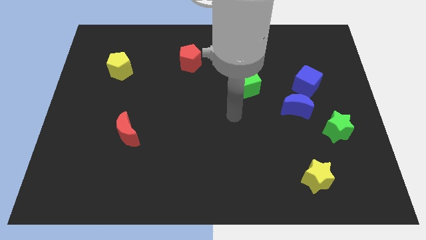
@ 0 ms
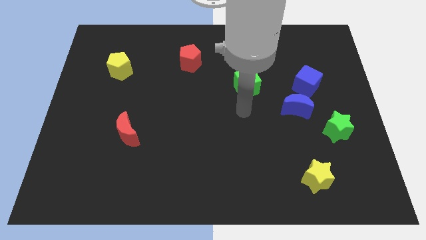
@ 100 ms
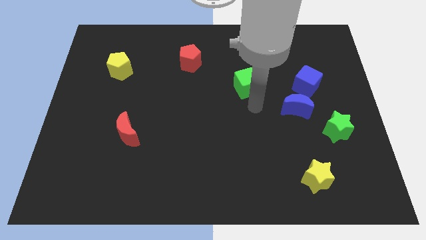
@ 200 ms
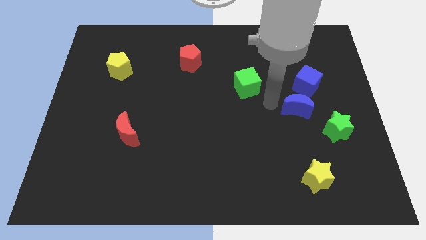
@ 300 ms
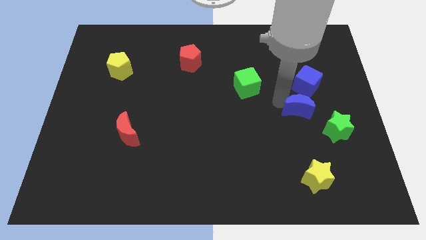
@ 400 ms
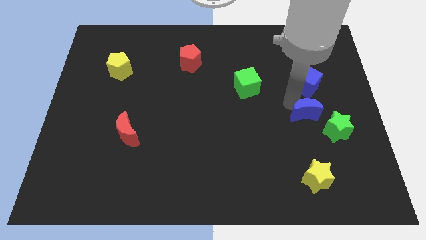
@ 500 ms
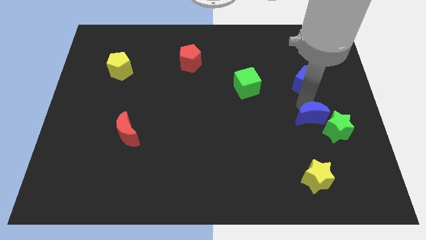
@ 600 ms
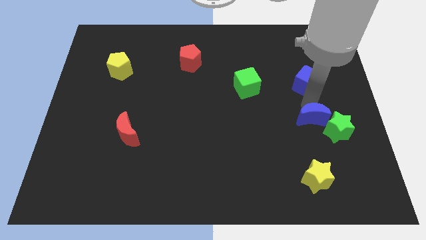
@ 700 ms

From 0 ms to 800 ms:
separate the blue cube from the blue moon

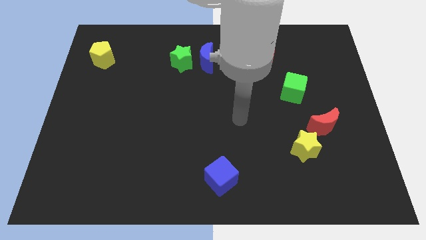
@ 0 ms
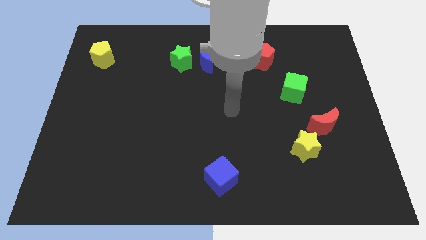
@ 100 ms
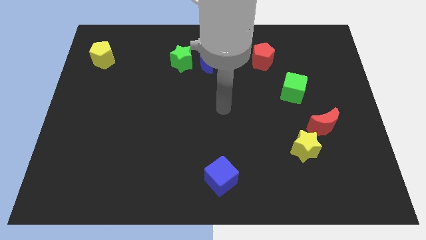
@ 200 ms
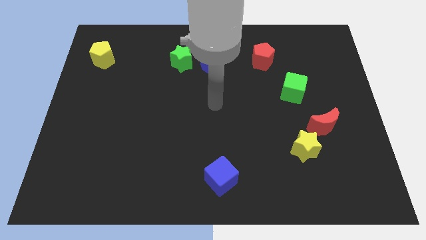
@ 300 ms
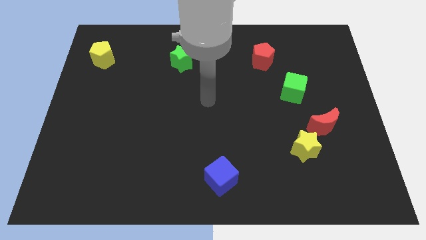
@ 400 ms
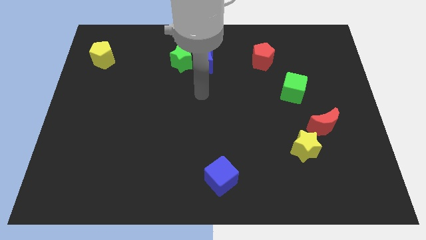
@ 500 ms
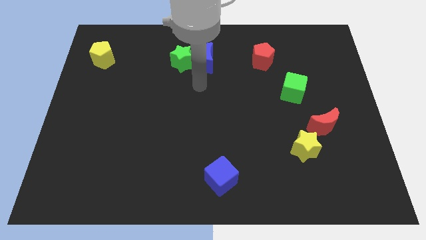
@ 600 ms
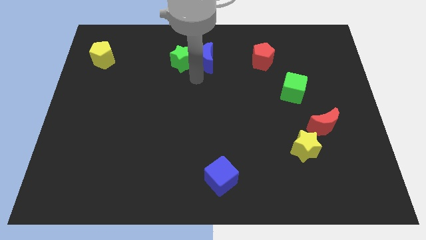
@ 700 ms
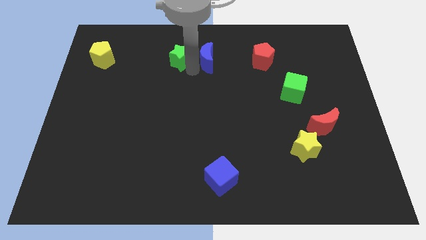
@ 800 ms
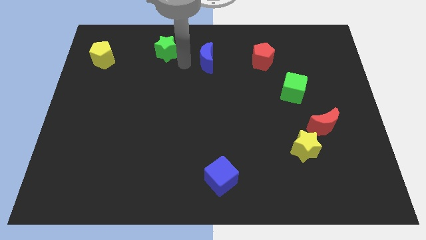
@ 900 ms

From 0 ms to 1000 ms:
move the blue moon away from the green star

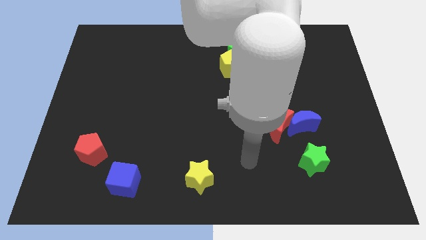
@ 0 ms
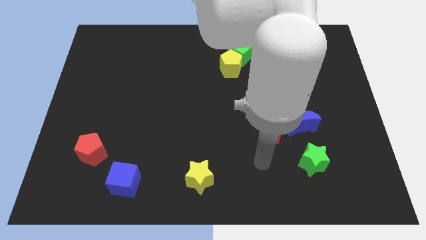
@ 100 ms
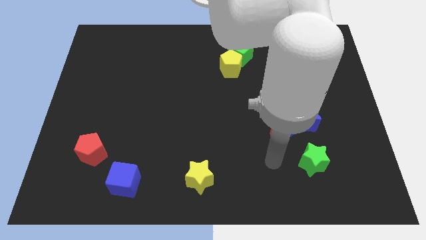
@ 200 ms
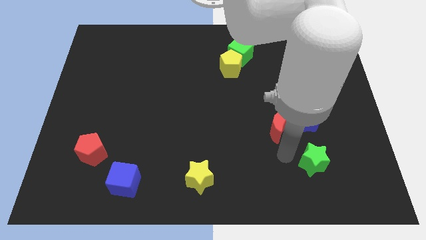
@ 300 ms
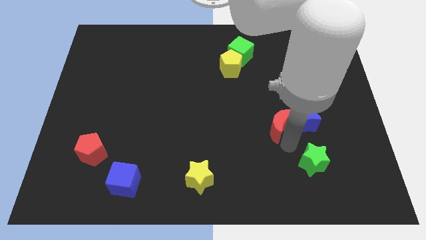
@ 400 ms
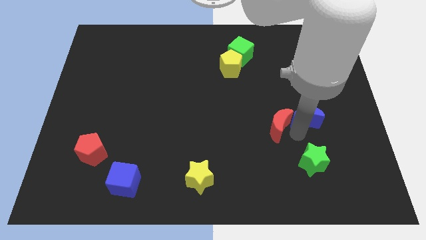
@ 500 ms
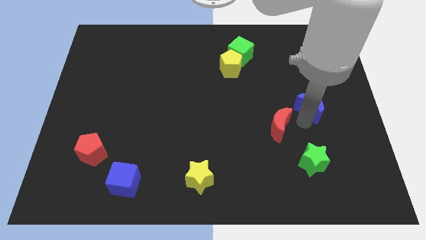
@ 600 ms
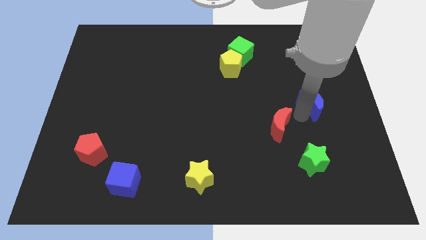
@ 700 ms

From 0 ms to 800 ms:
move the red moon away from the blue moon

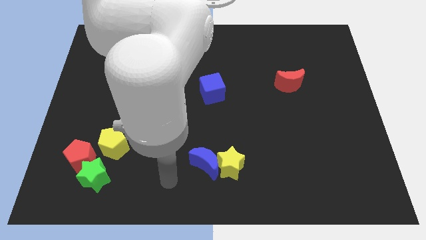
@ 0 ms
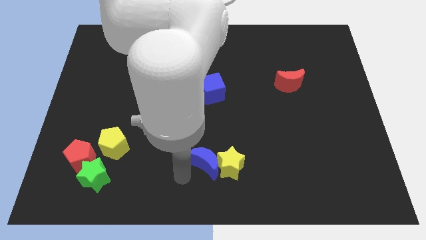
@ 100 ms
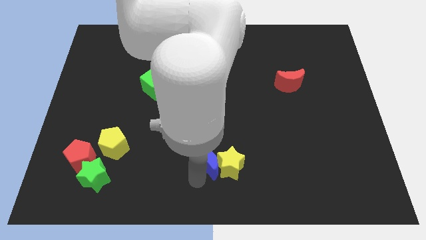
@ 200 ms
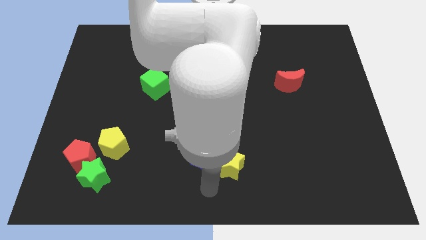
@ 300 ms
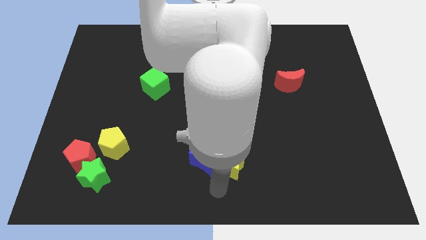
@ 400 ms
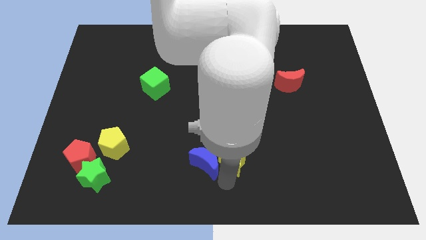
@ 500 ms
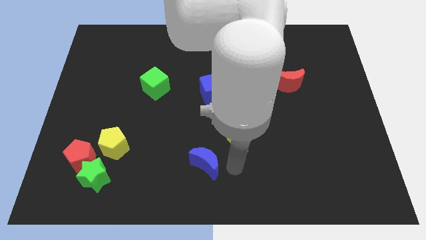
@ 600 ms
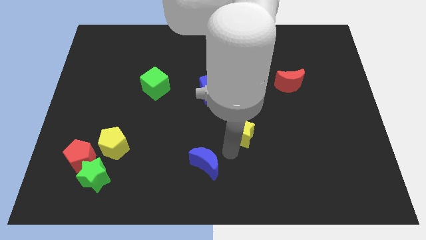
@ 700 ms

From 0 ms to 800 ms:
move the blue moon away from the yellow star

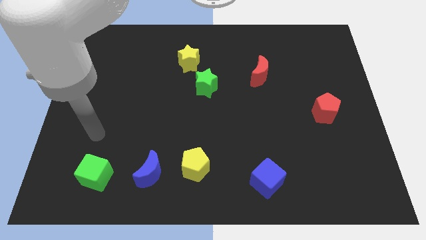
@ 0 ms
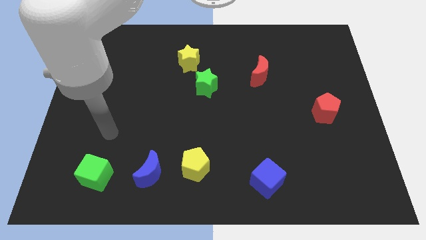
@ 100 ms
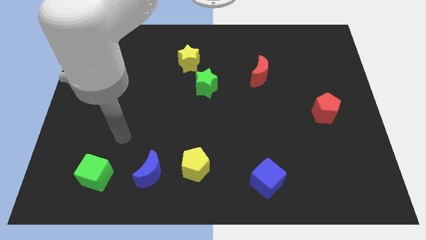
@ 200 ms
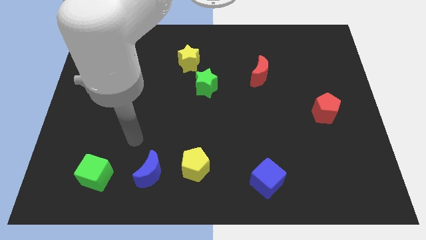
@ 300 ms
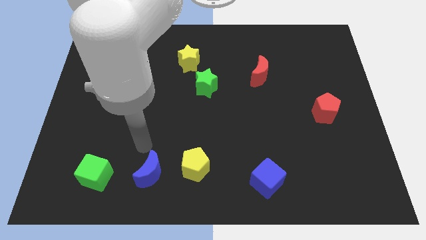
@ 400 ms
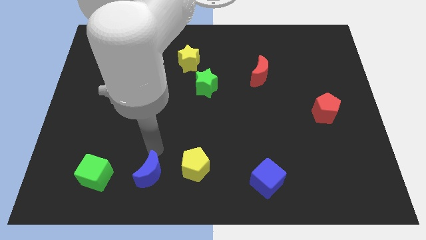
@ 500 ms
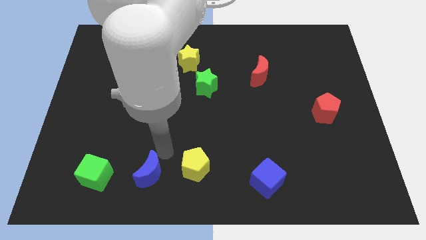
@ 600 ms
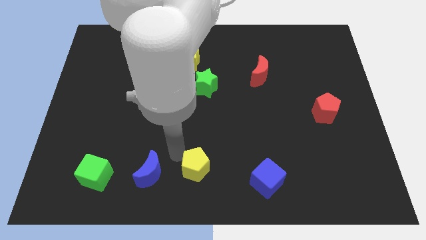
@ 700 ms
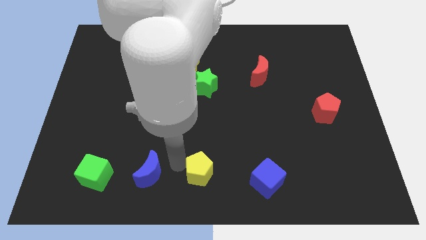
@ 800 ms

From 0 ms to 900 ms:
move the blue moon away from the yellow pentagon

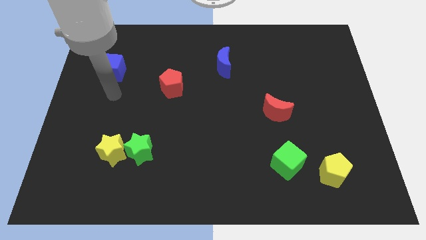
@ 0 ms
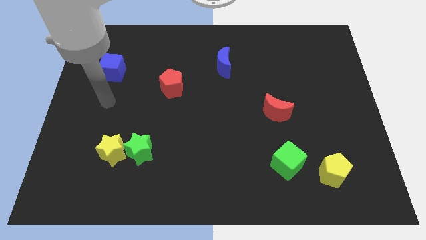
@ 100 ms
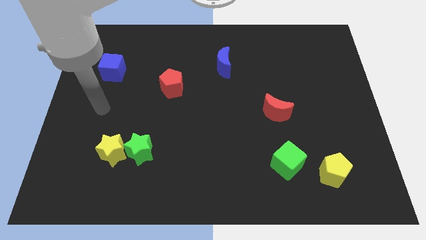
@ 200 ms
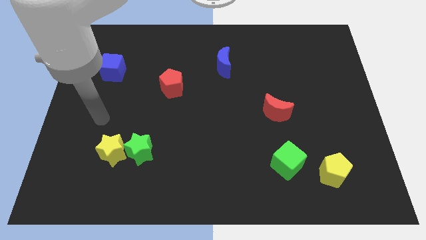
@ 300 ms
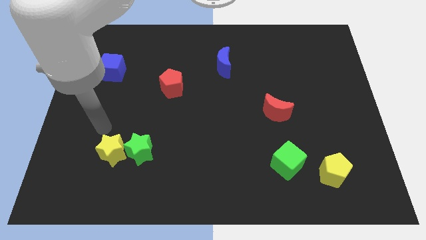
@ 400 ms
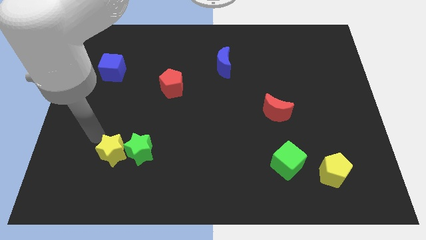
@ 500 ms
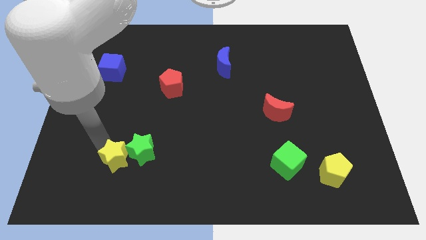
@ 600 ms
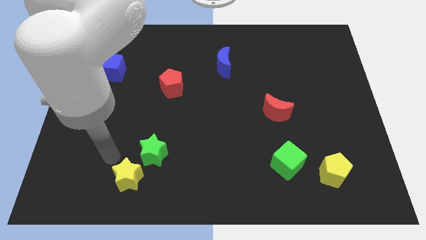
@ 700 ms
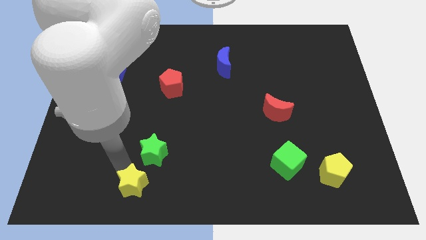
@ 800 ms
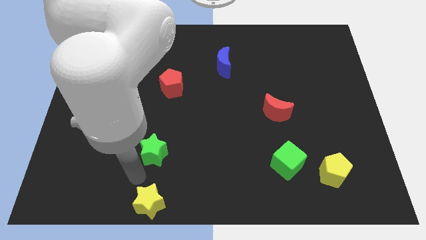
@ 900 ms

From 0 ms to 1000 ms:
pull the green star apart from the yellow star

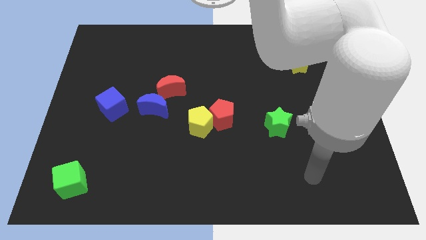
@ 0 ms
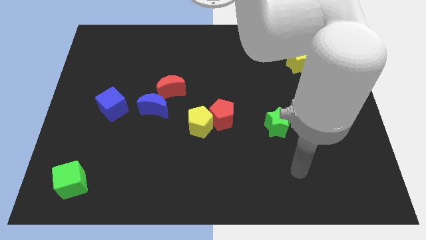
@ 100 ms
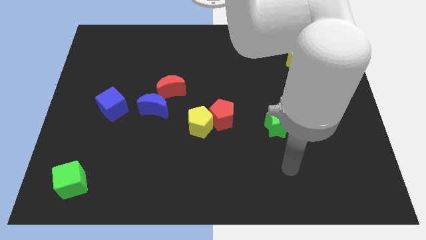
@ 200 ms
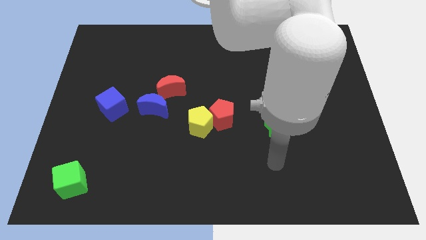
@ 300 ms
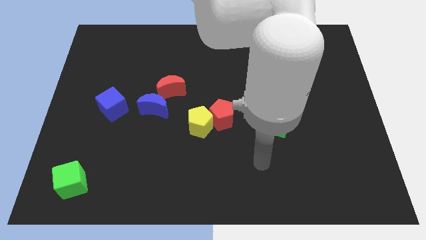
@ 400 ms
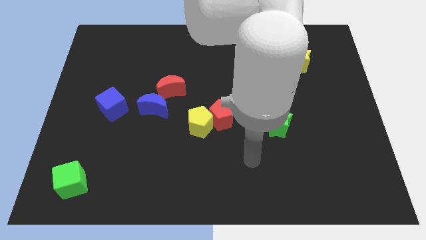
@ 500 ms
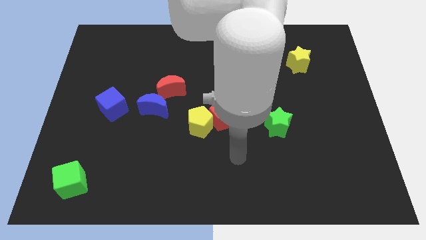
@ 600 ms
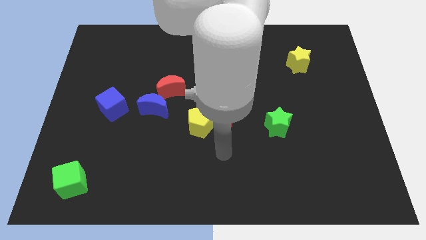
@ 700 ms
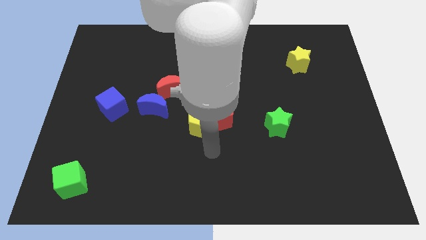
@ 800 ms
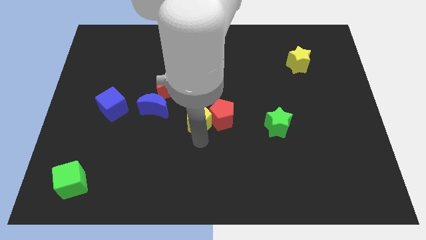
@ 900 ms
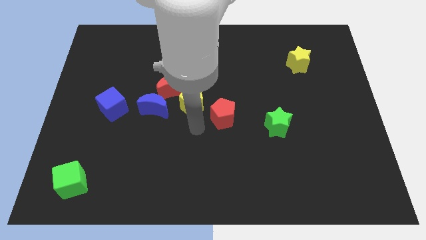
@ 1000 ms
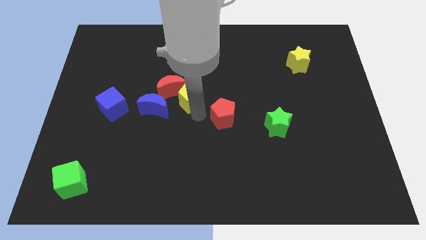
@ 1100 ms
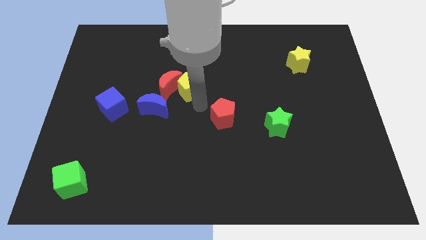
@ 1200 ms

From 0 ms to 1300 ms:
separate the red pentagon from the yellow pentagon

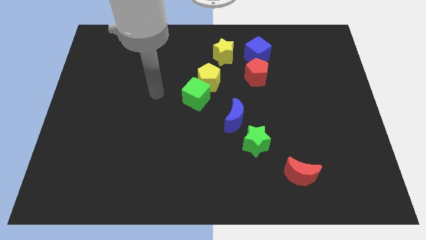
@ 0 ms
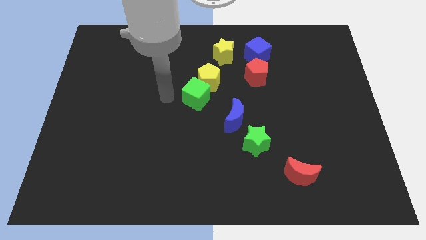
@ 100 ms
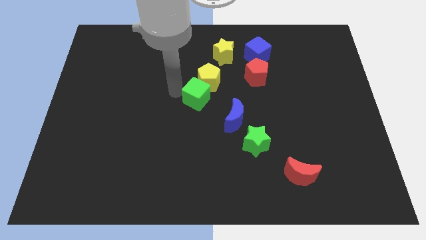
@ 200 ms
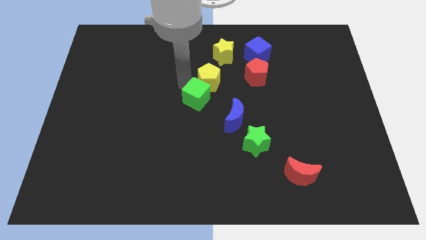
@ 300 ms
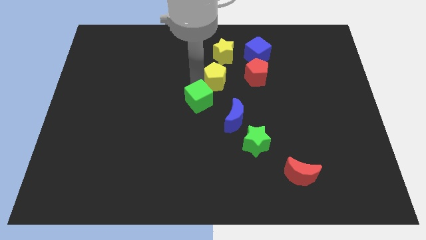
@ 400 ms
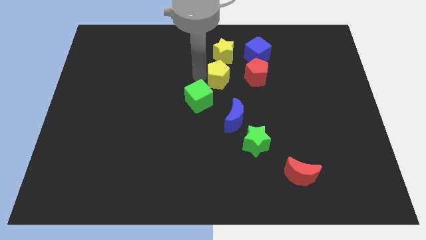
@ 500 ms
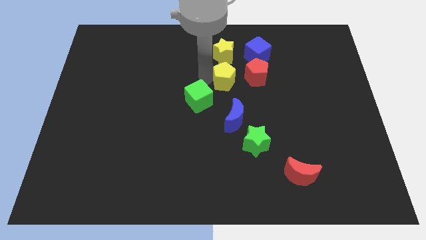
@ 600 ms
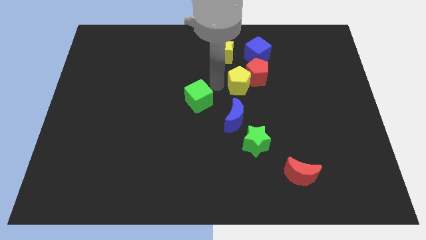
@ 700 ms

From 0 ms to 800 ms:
move the green cube away from the yellow pentagon

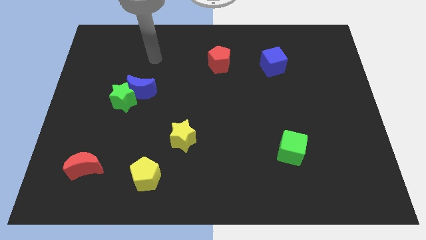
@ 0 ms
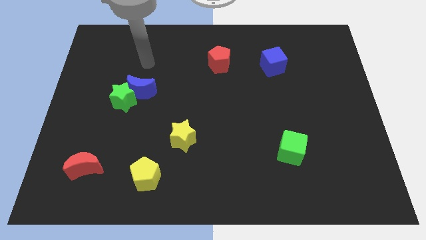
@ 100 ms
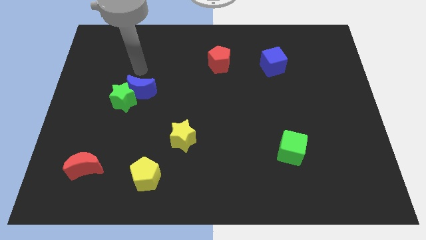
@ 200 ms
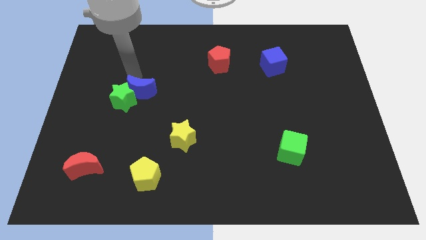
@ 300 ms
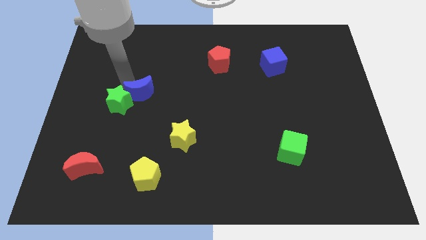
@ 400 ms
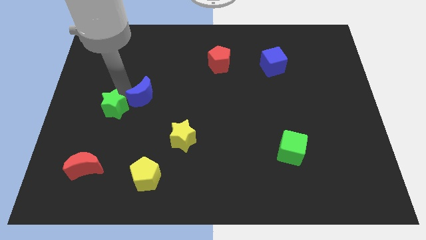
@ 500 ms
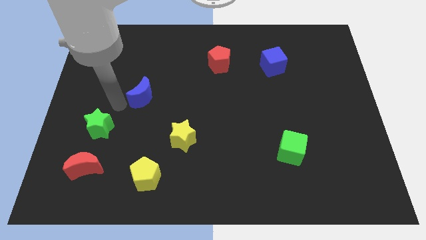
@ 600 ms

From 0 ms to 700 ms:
pull the blue moon apart from the green star

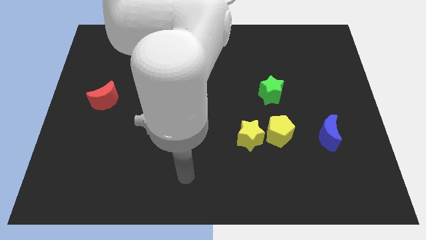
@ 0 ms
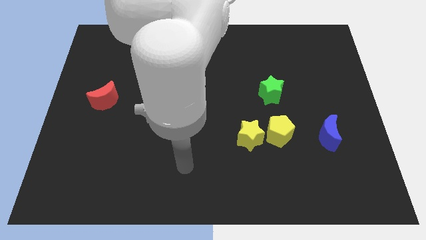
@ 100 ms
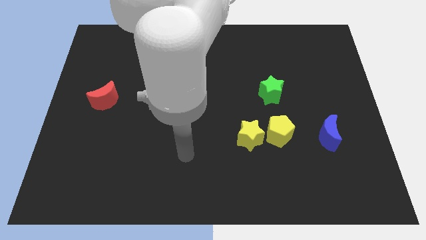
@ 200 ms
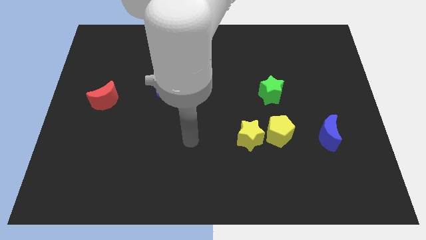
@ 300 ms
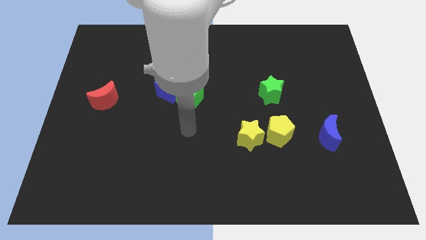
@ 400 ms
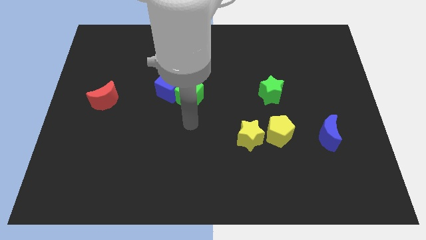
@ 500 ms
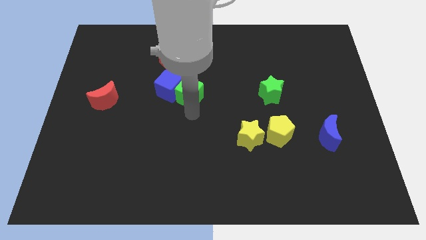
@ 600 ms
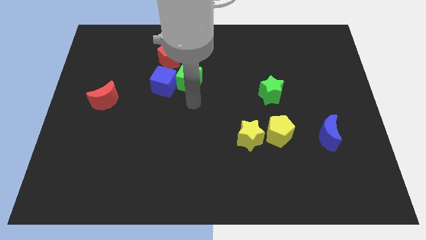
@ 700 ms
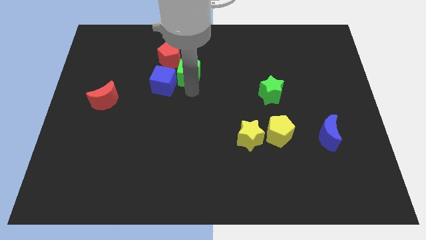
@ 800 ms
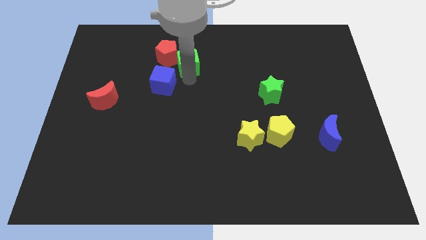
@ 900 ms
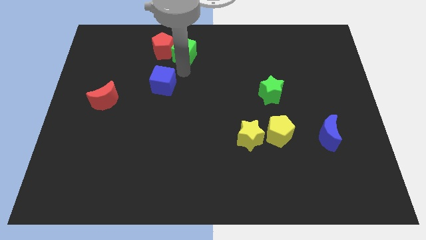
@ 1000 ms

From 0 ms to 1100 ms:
move the blue cube away from the green cube
